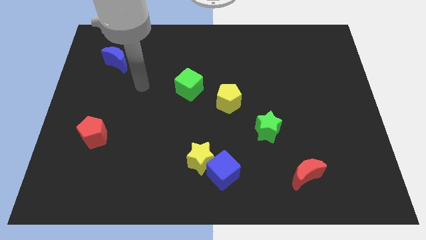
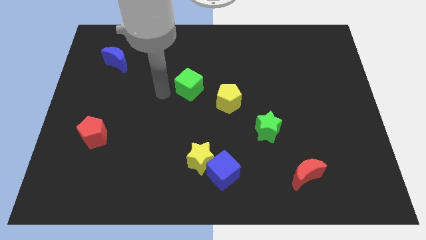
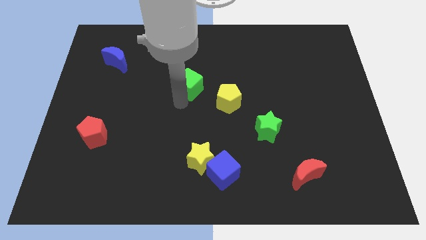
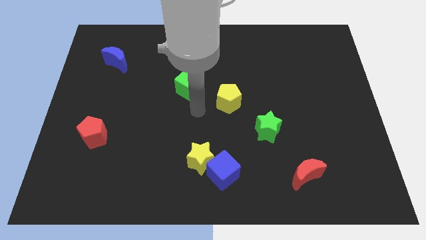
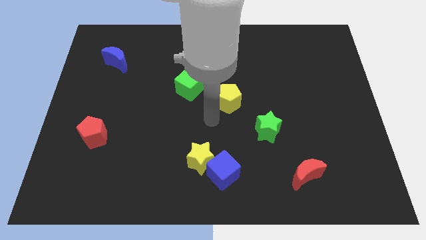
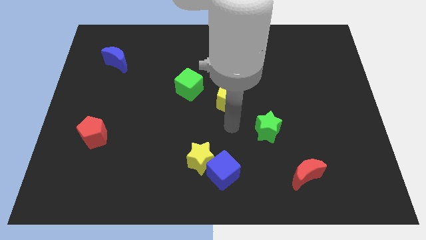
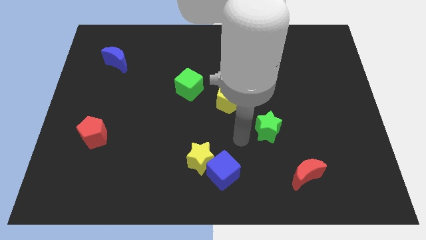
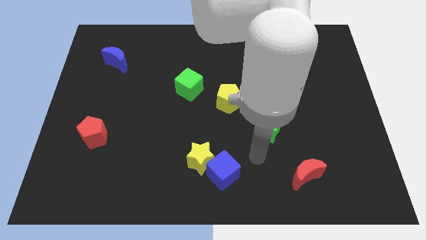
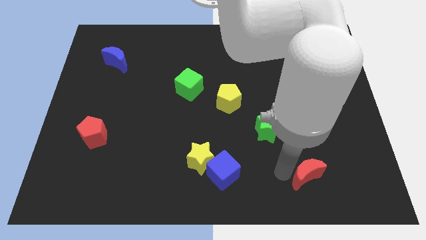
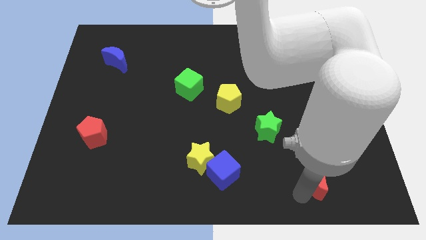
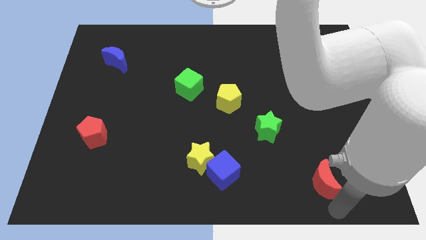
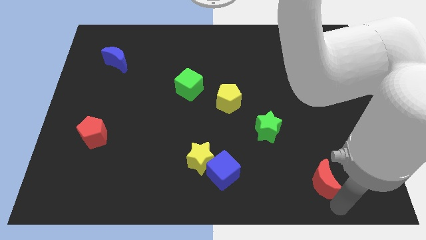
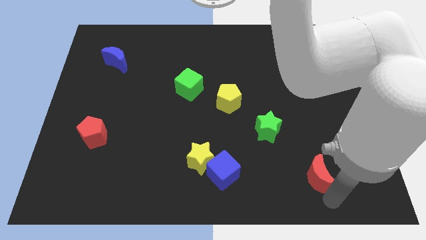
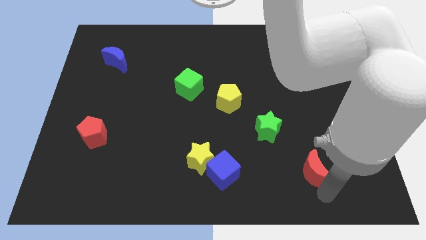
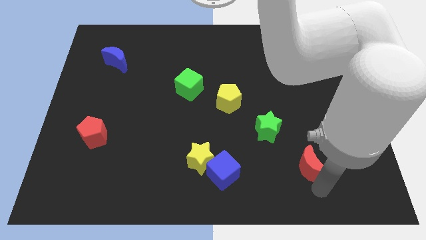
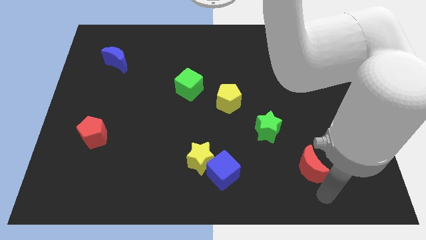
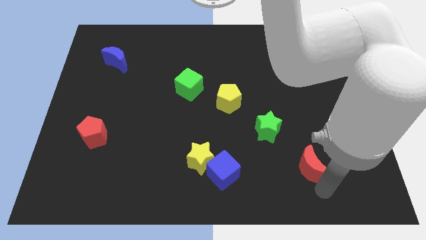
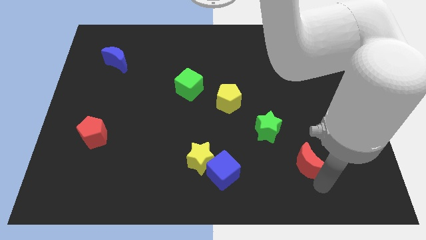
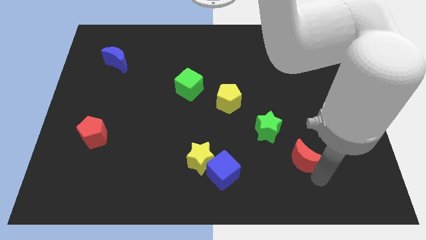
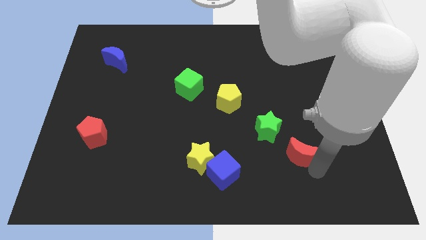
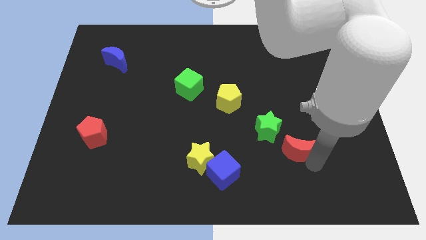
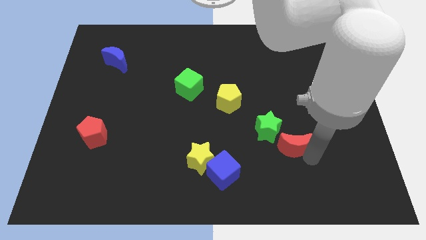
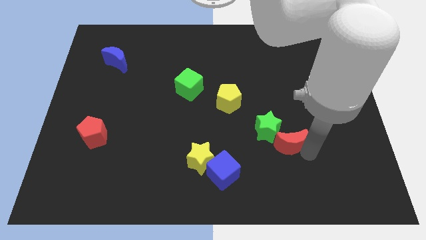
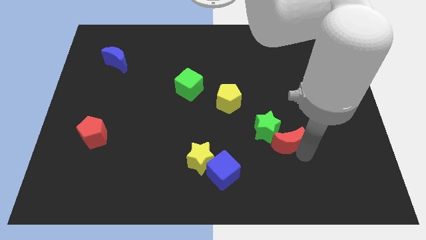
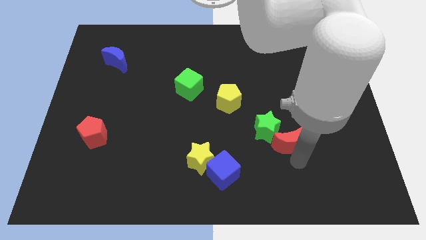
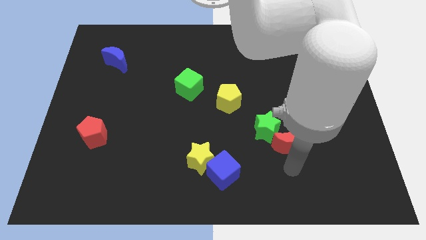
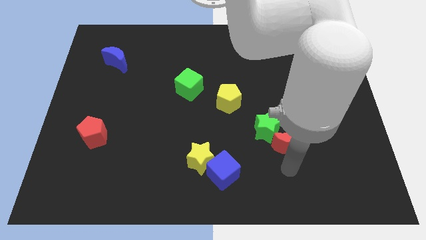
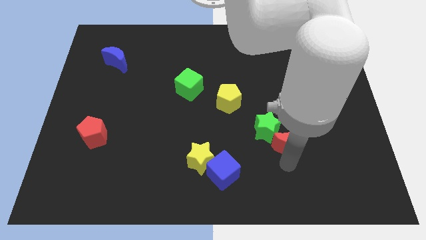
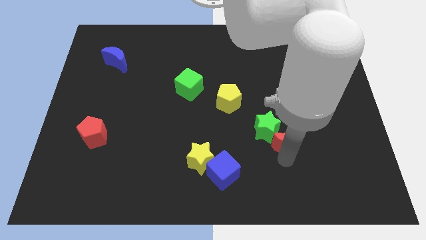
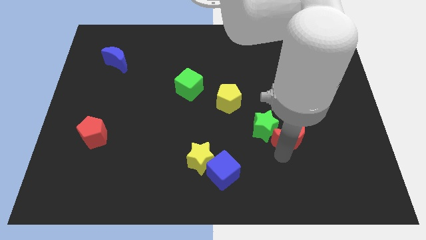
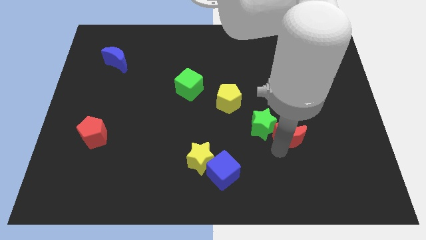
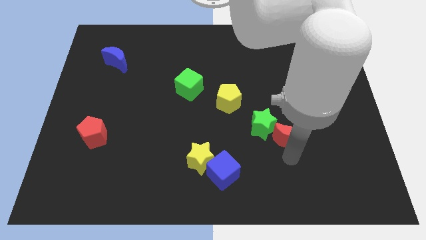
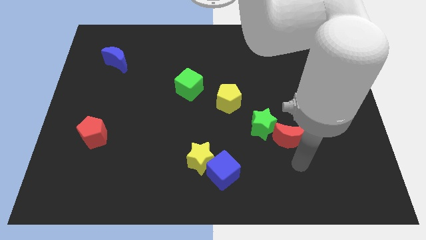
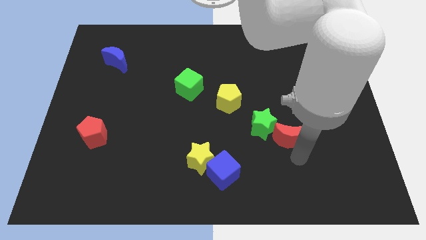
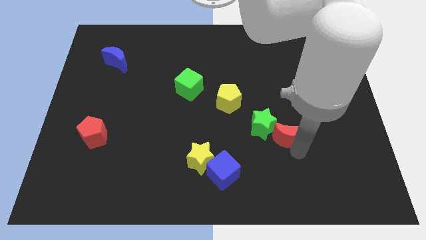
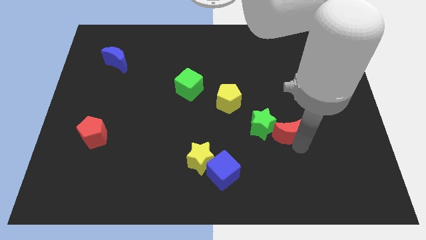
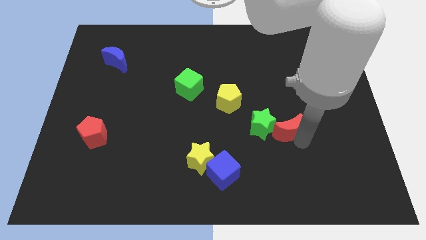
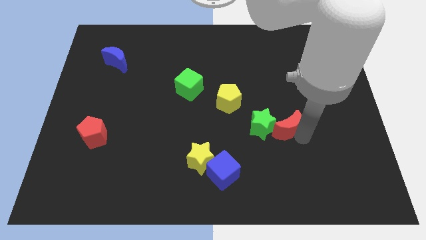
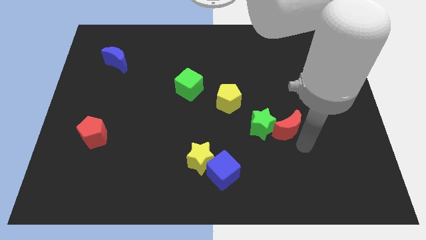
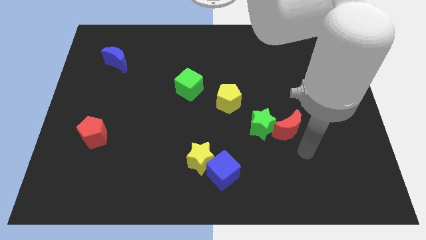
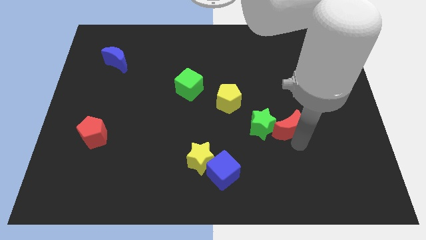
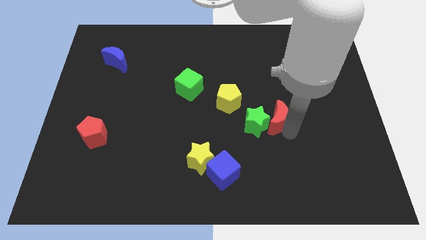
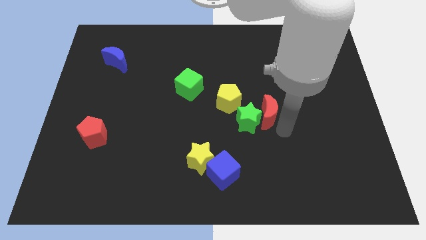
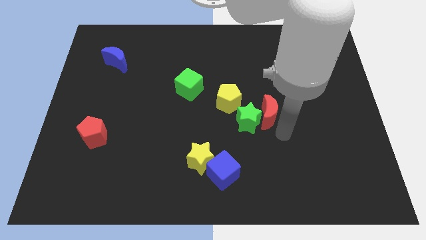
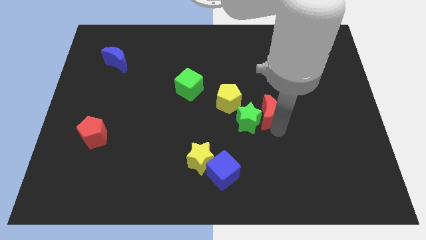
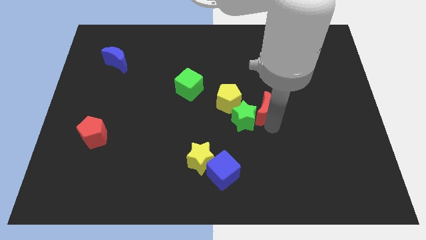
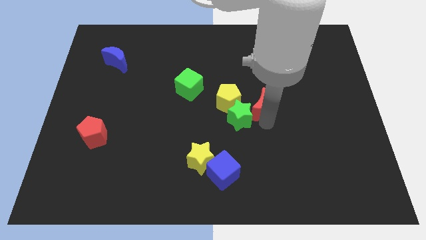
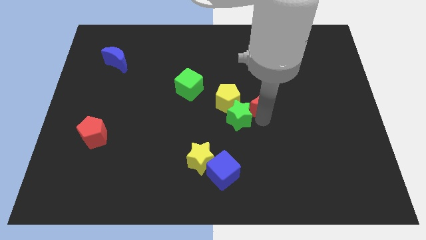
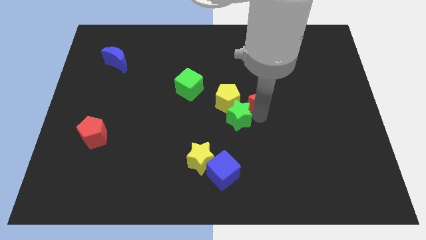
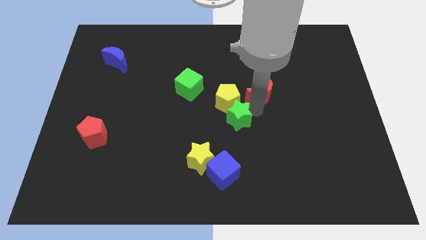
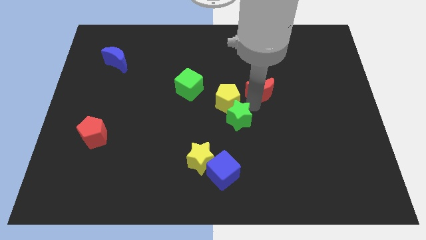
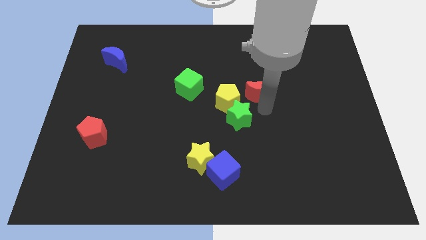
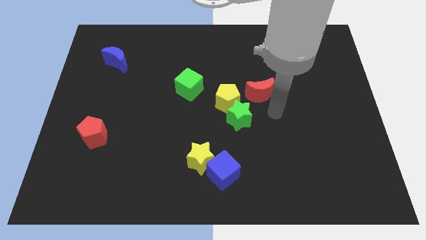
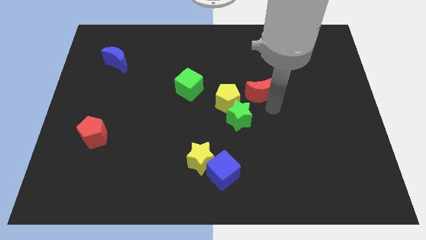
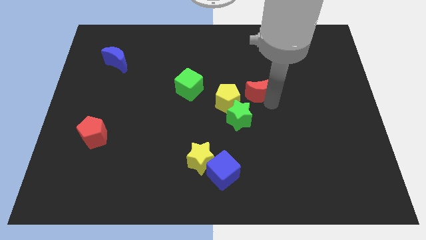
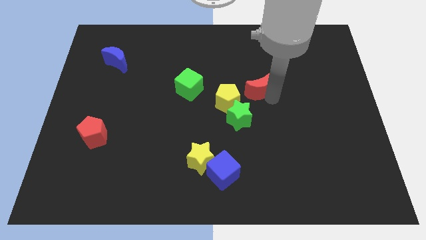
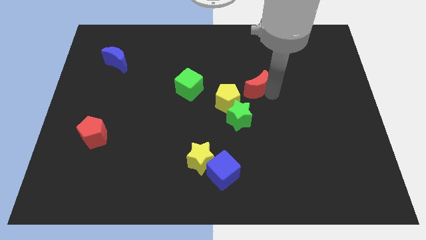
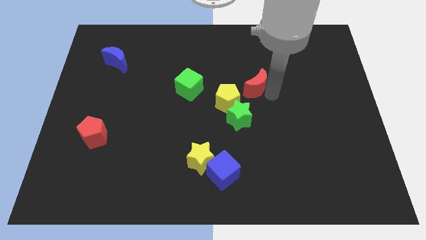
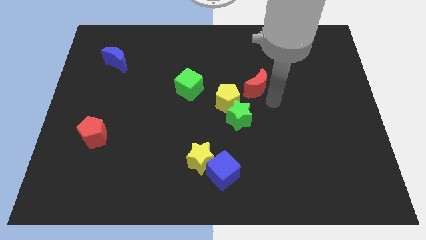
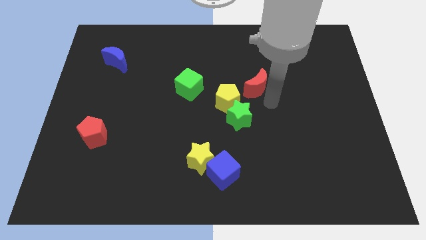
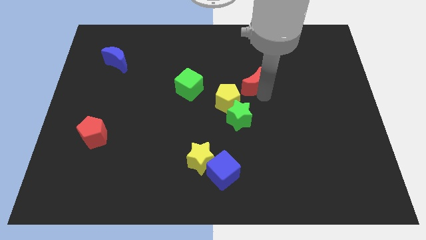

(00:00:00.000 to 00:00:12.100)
slide the red moon to the right of the green cube

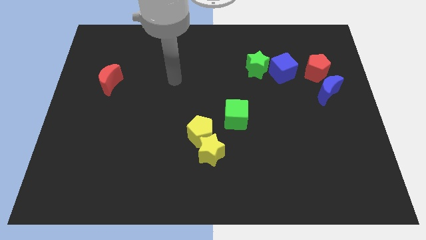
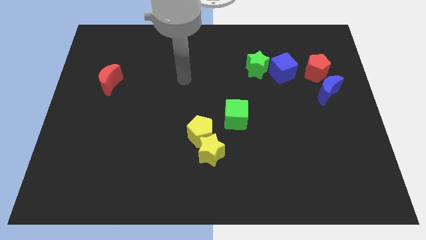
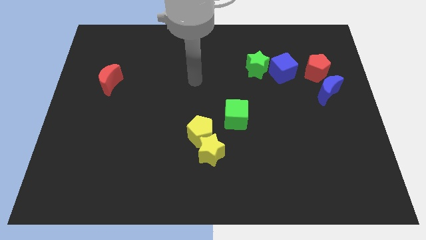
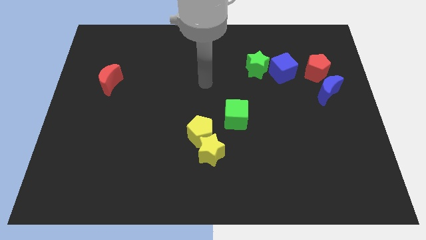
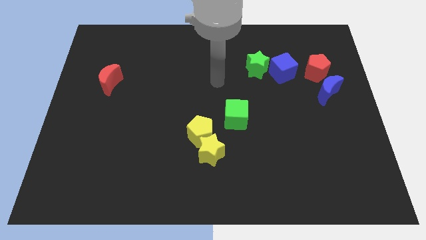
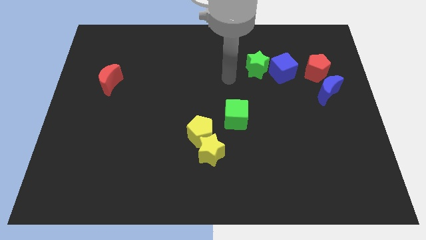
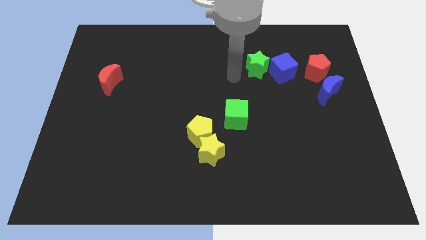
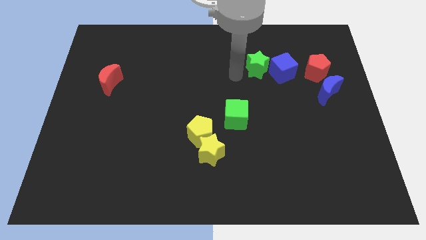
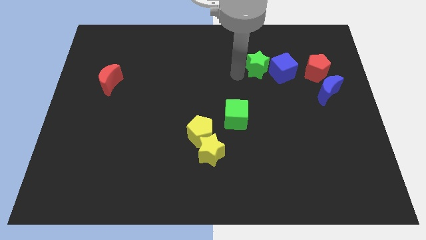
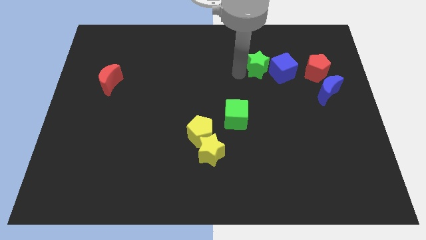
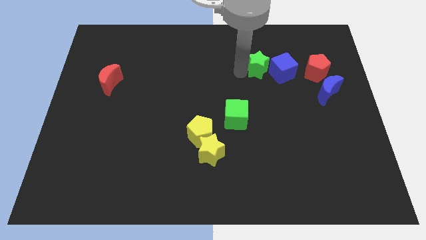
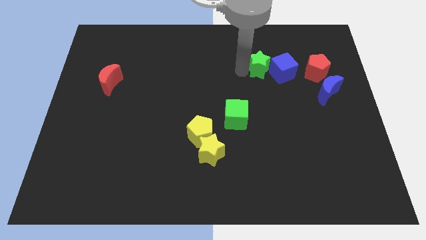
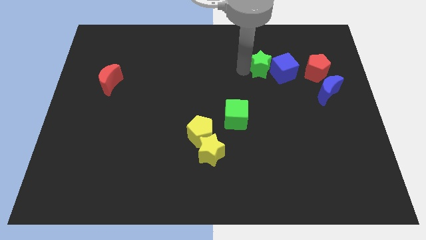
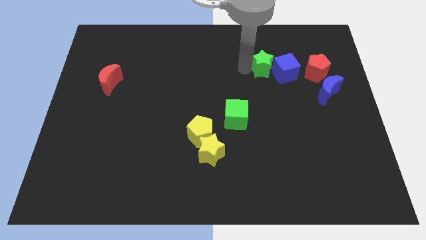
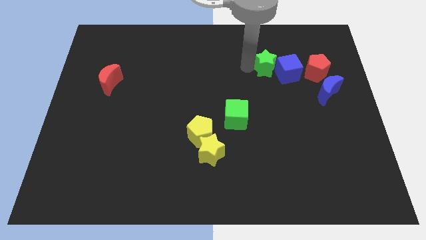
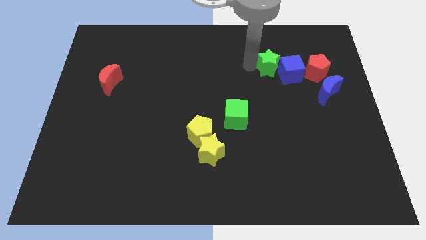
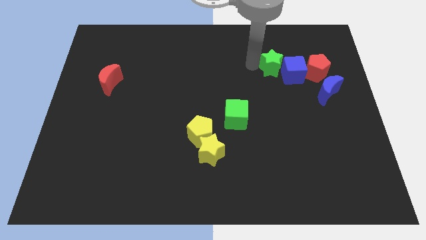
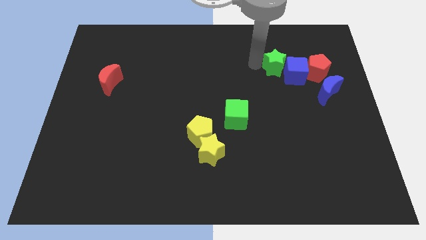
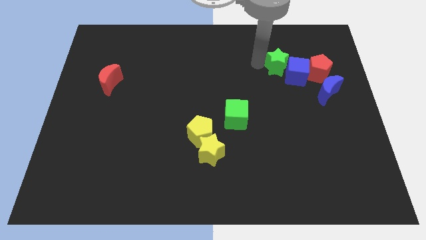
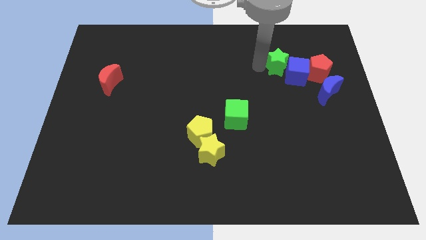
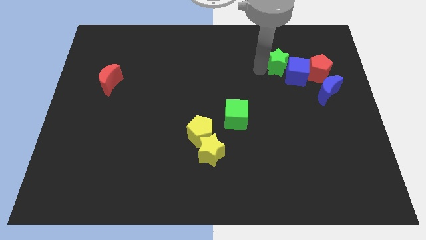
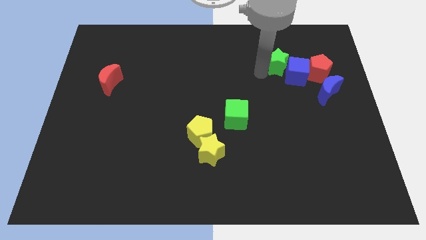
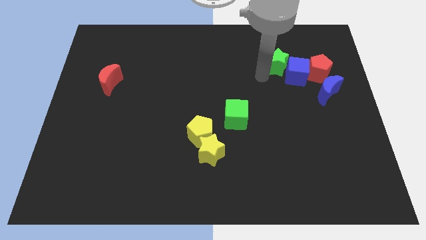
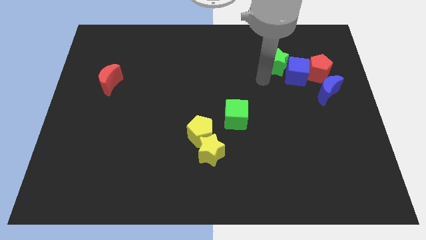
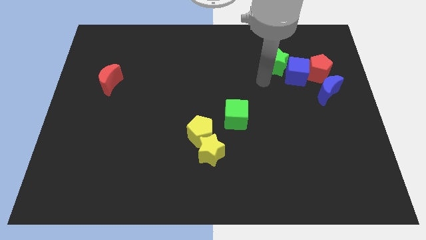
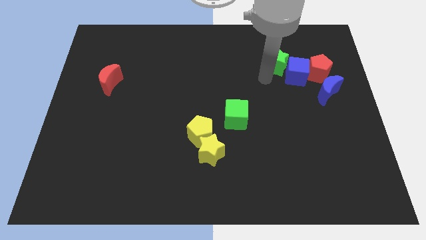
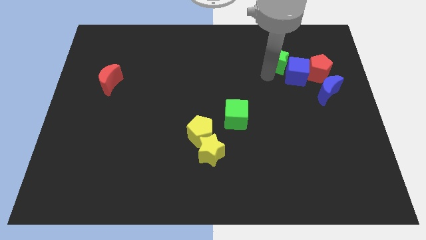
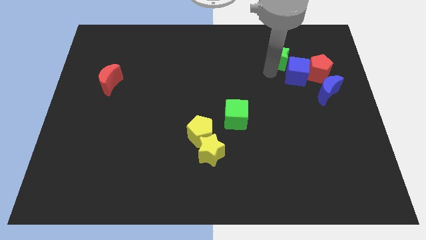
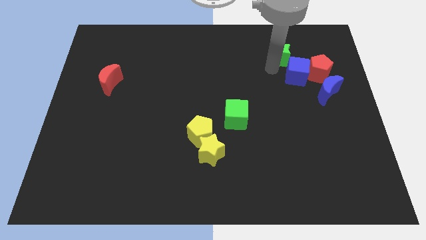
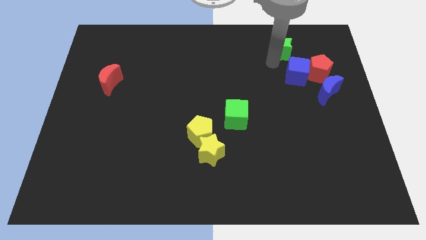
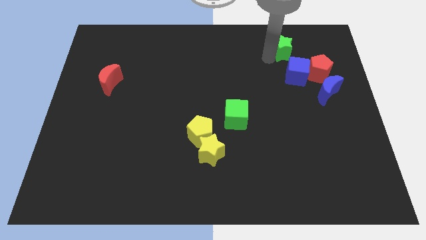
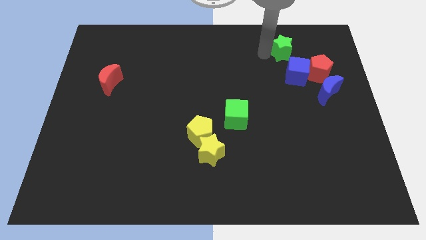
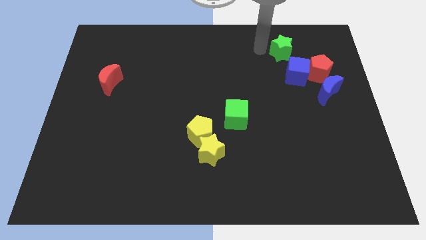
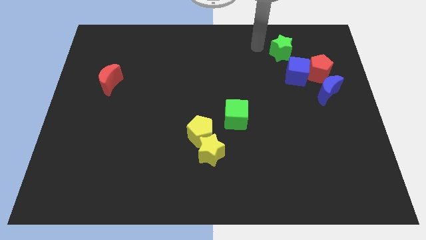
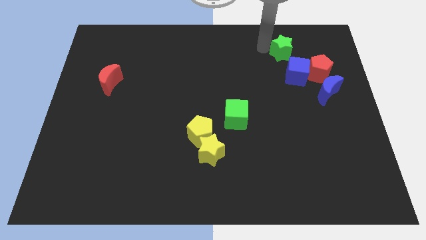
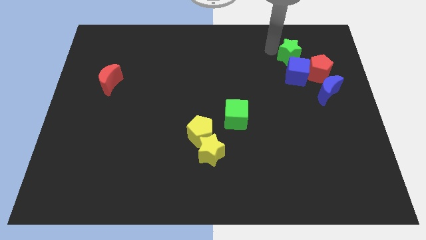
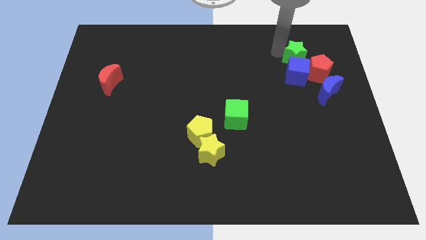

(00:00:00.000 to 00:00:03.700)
push the green star diagonally up and to the right of the blue cube
